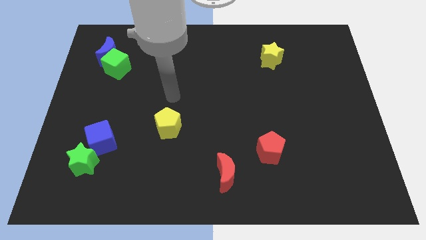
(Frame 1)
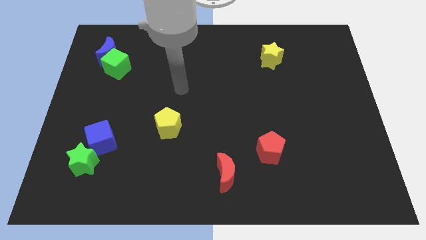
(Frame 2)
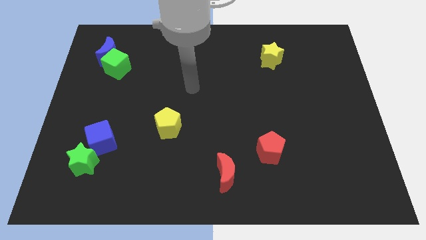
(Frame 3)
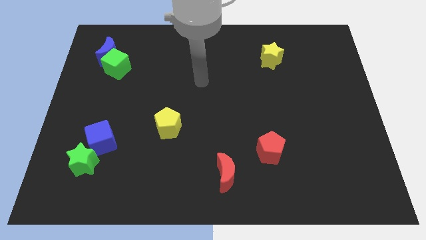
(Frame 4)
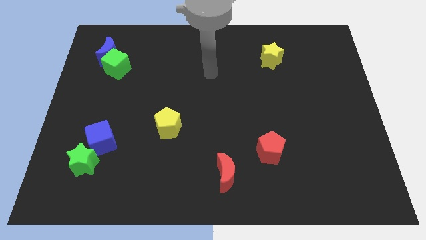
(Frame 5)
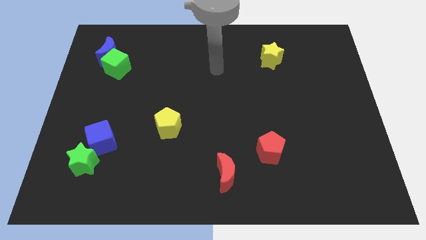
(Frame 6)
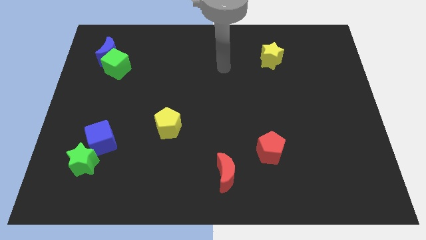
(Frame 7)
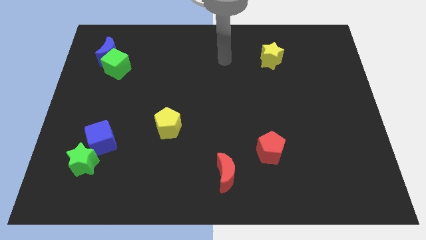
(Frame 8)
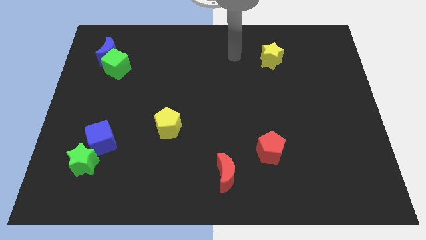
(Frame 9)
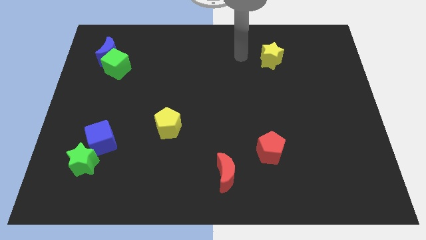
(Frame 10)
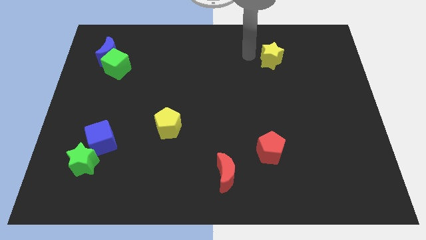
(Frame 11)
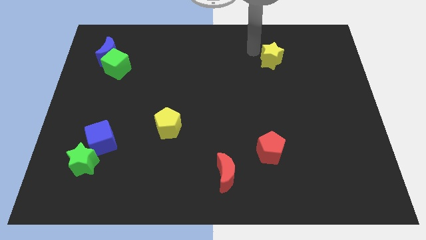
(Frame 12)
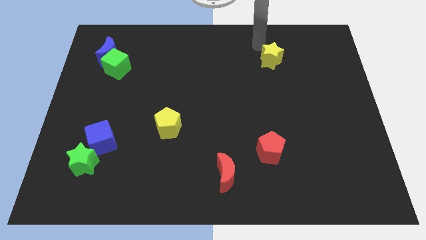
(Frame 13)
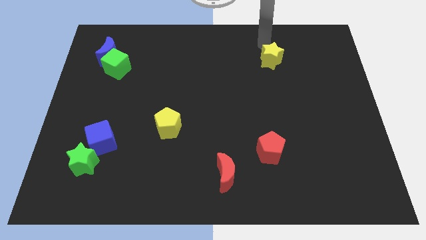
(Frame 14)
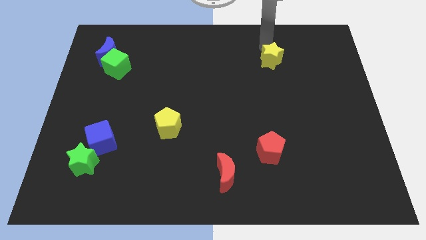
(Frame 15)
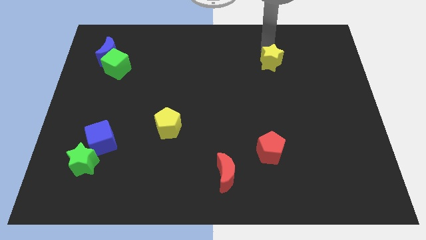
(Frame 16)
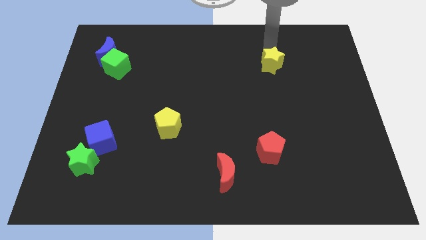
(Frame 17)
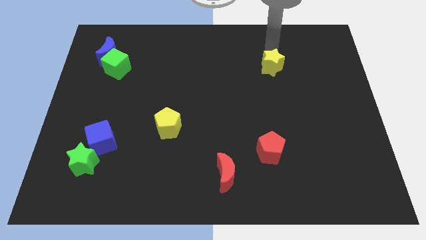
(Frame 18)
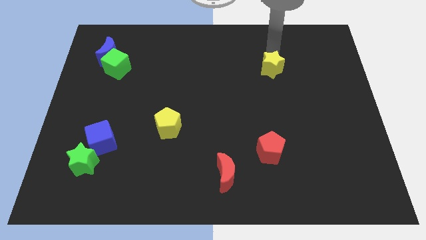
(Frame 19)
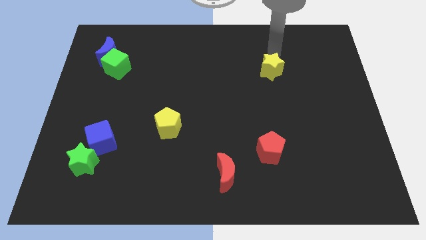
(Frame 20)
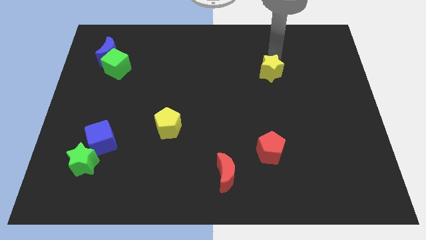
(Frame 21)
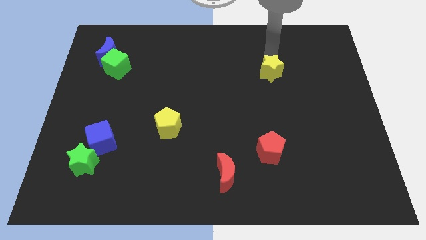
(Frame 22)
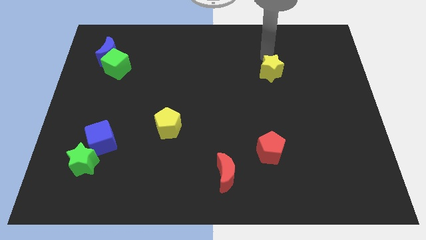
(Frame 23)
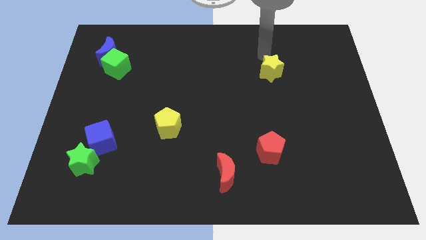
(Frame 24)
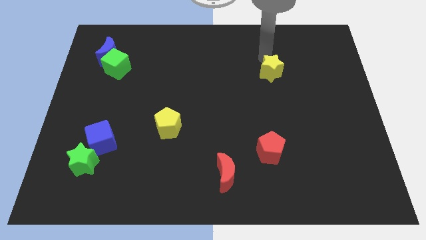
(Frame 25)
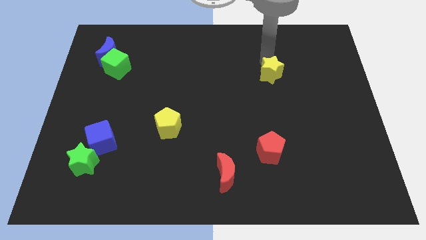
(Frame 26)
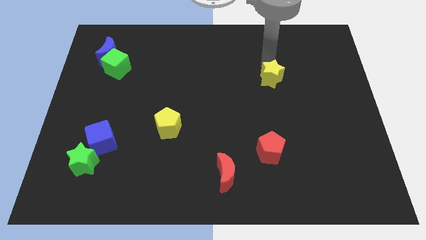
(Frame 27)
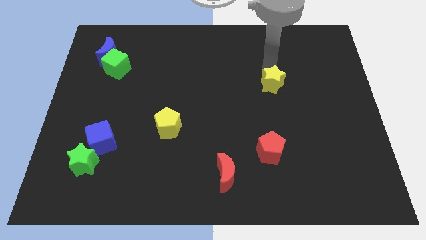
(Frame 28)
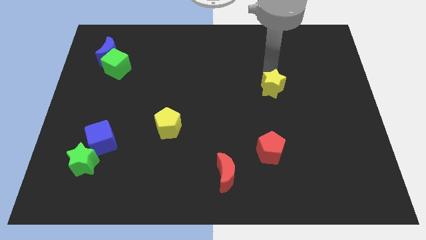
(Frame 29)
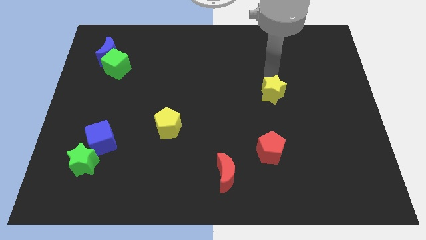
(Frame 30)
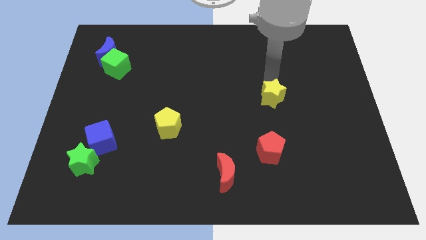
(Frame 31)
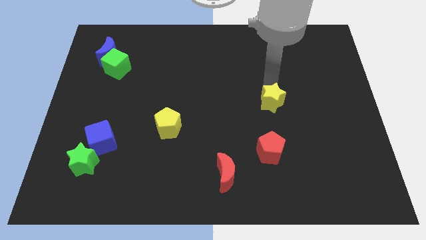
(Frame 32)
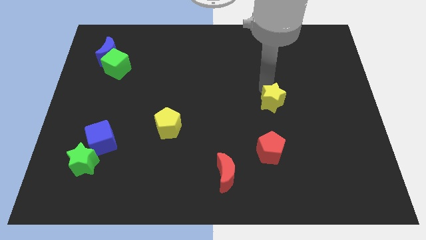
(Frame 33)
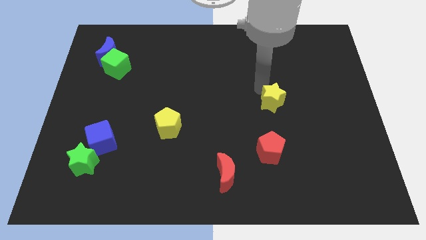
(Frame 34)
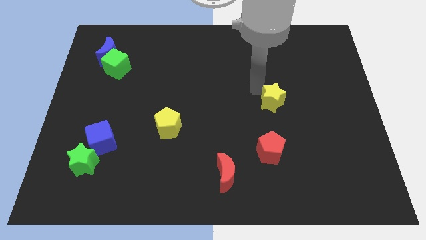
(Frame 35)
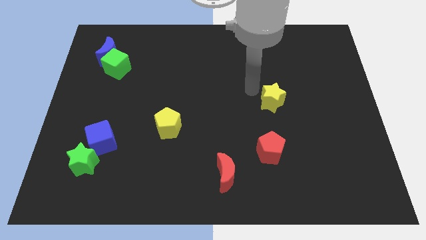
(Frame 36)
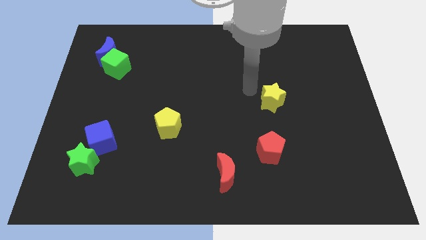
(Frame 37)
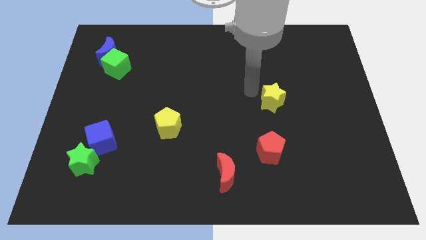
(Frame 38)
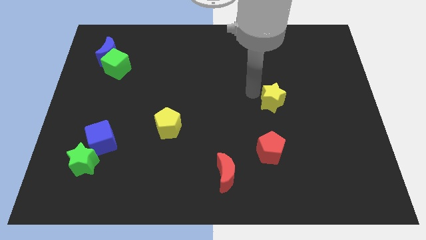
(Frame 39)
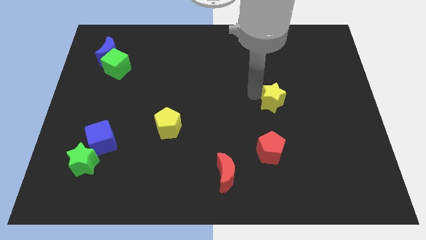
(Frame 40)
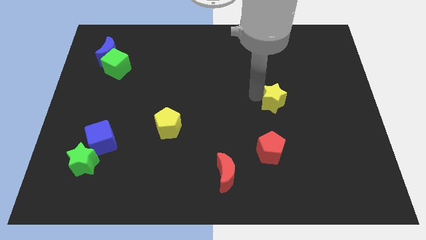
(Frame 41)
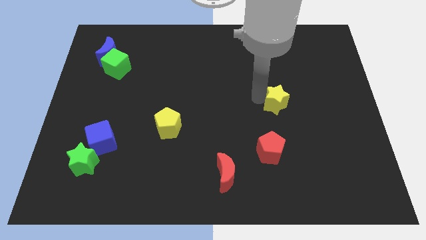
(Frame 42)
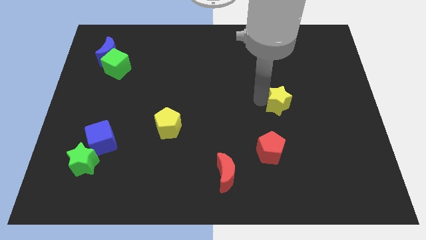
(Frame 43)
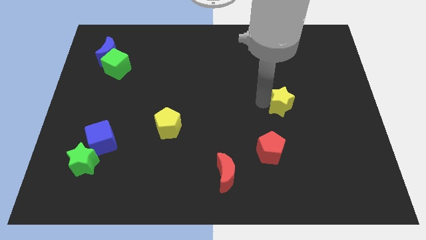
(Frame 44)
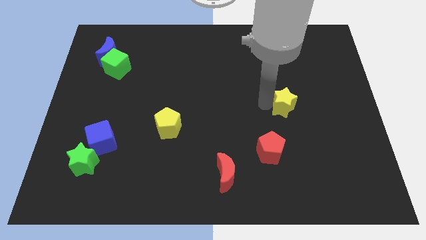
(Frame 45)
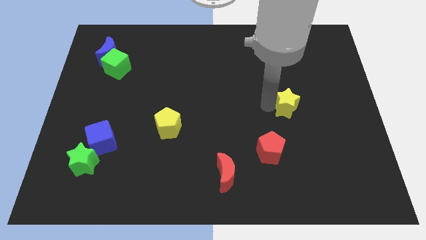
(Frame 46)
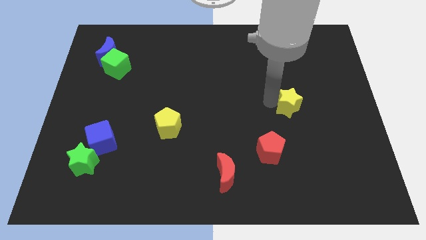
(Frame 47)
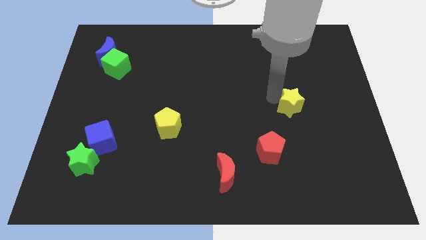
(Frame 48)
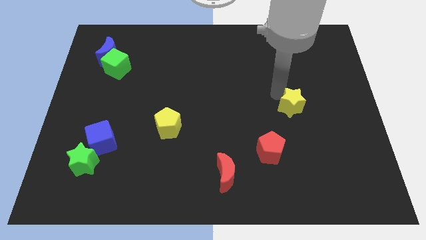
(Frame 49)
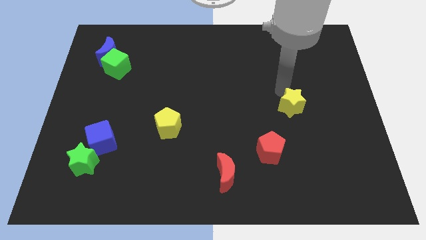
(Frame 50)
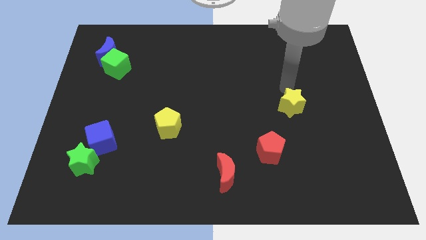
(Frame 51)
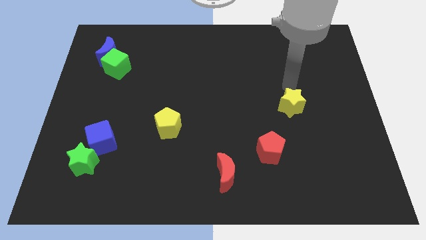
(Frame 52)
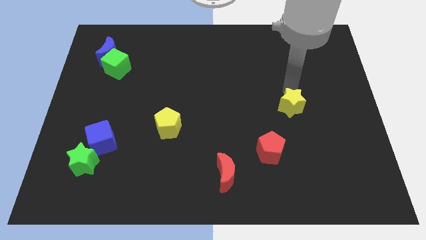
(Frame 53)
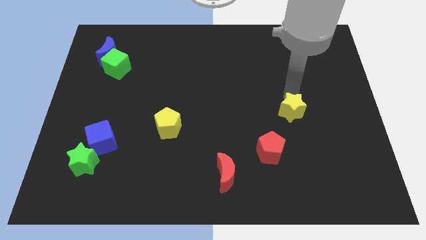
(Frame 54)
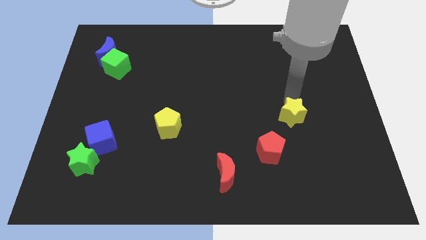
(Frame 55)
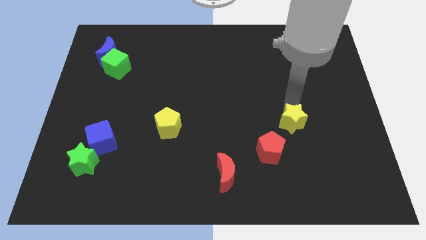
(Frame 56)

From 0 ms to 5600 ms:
slide the yellow star down

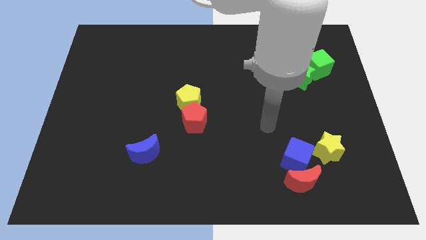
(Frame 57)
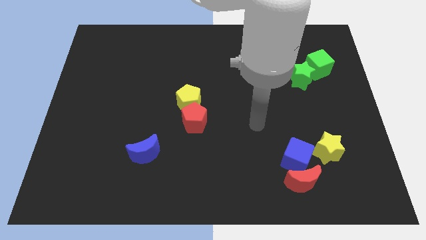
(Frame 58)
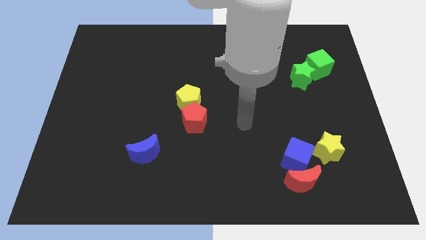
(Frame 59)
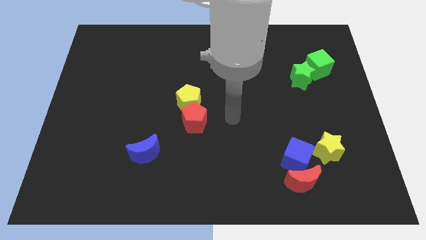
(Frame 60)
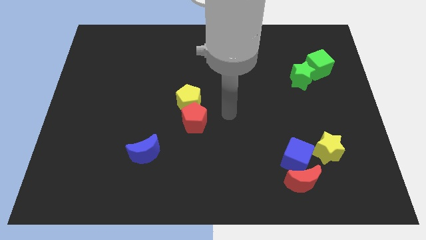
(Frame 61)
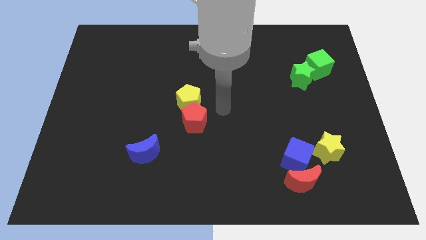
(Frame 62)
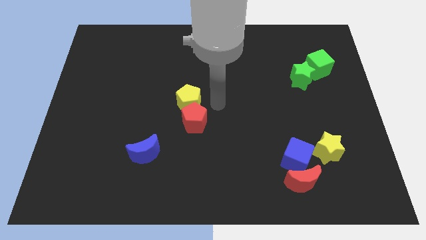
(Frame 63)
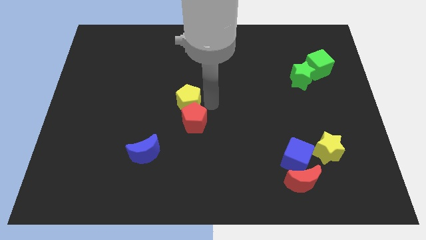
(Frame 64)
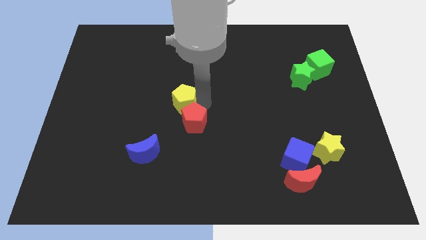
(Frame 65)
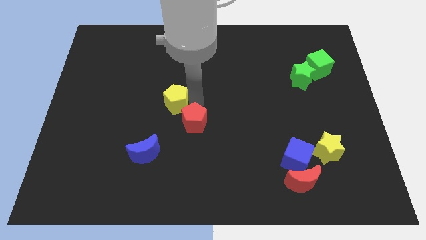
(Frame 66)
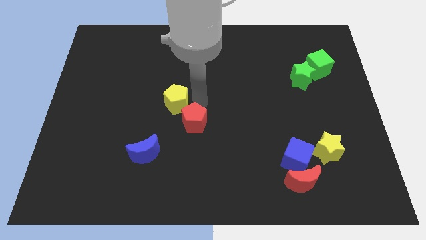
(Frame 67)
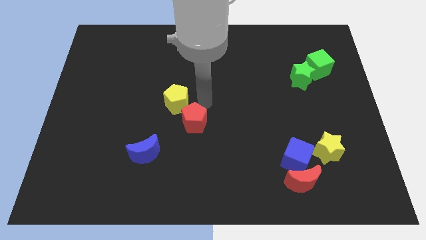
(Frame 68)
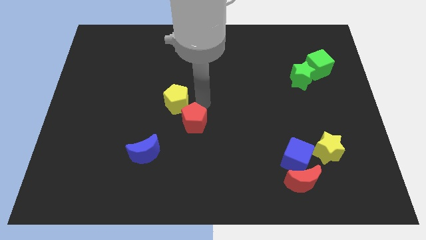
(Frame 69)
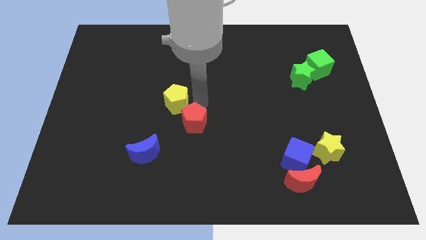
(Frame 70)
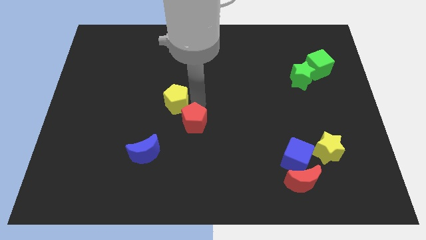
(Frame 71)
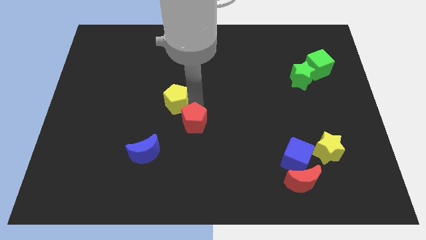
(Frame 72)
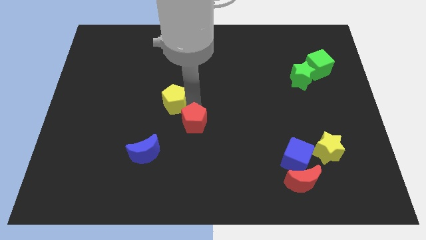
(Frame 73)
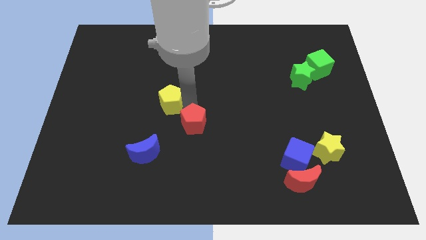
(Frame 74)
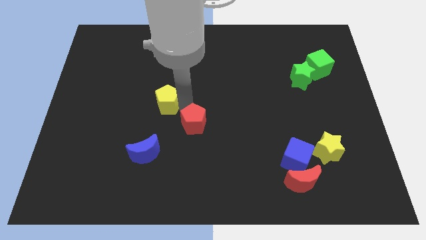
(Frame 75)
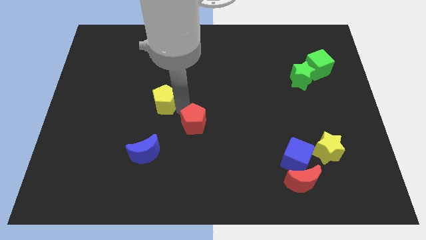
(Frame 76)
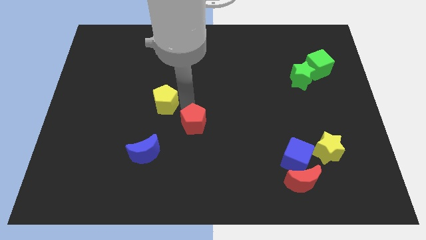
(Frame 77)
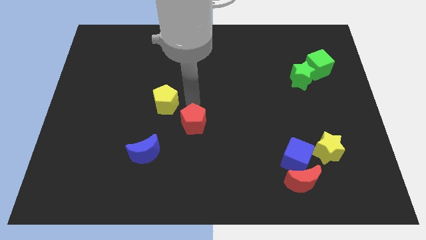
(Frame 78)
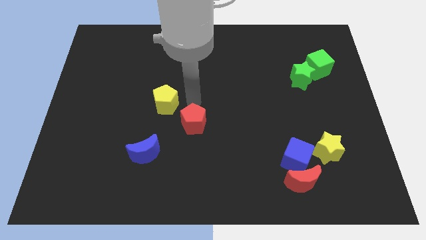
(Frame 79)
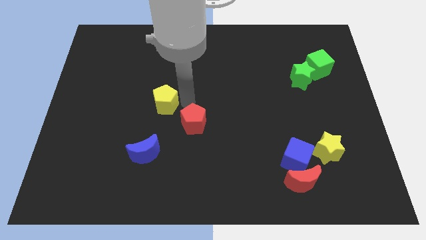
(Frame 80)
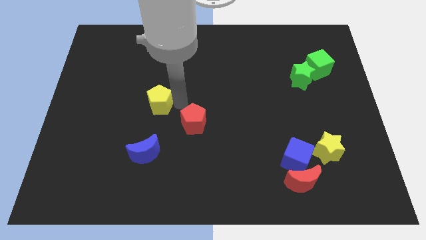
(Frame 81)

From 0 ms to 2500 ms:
push the yellow pentagon left somewhat
